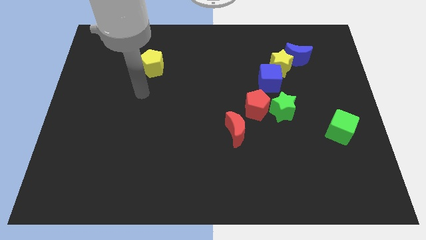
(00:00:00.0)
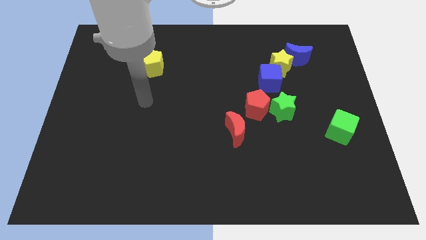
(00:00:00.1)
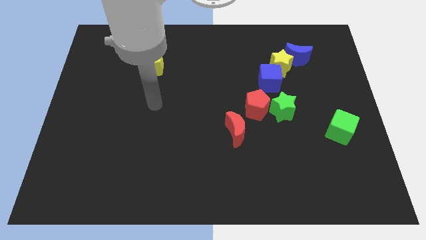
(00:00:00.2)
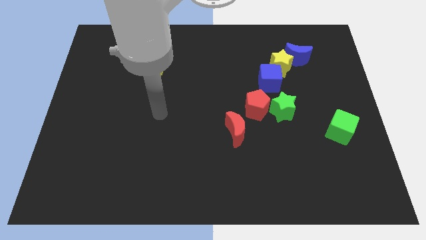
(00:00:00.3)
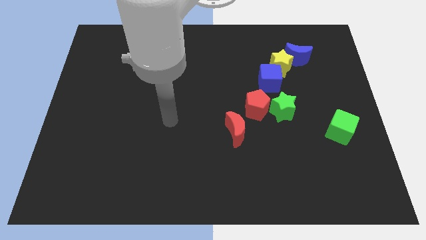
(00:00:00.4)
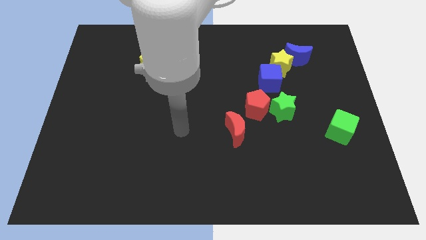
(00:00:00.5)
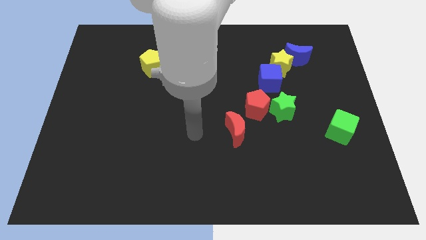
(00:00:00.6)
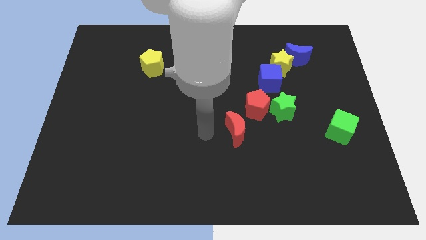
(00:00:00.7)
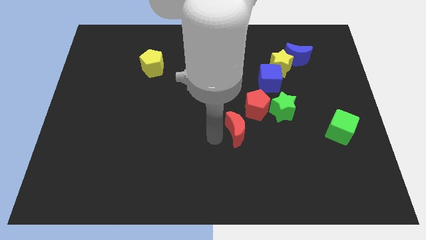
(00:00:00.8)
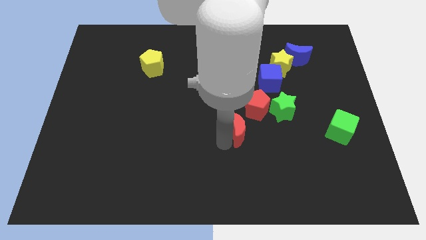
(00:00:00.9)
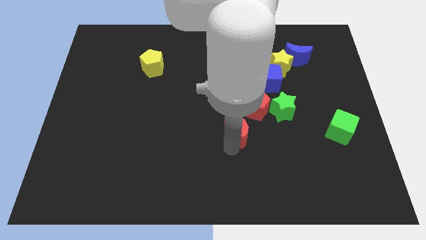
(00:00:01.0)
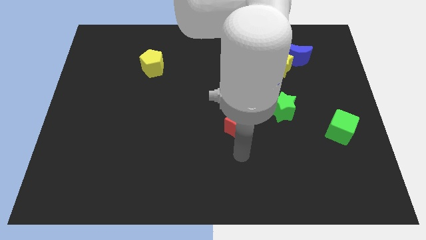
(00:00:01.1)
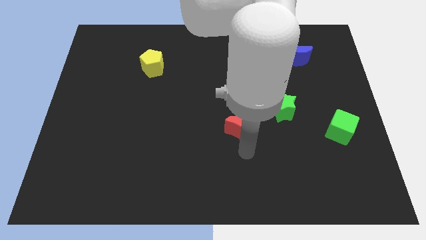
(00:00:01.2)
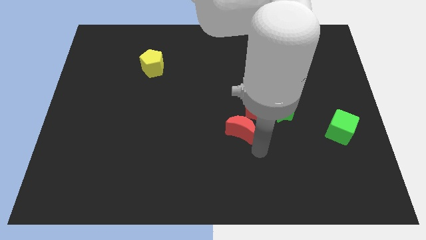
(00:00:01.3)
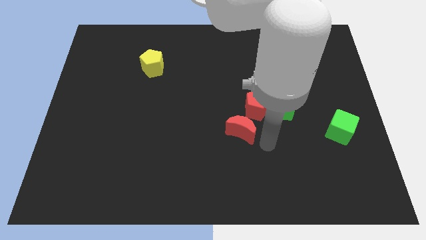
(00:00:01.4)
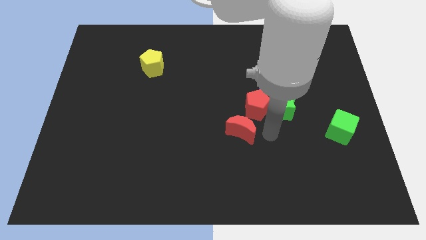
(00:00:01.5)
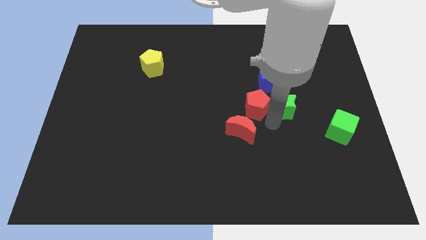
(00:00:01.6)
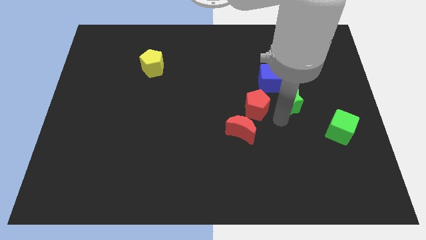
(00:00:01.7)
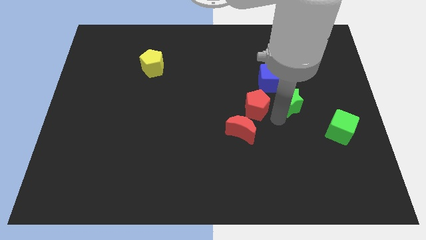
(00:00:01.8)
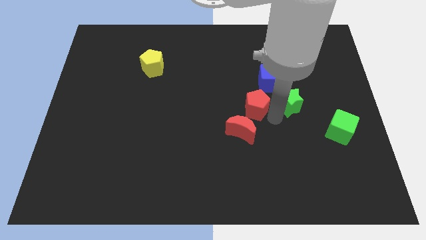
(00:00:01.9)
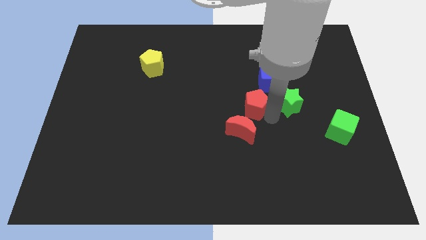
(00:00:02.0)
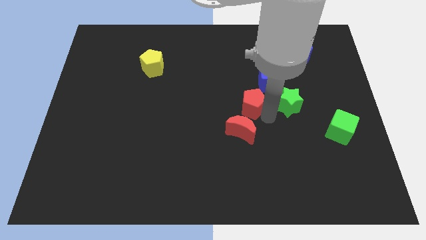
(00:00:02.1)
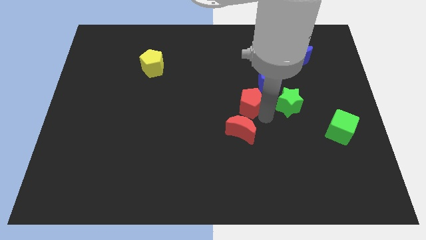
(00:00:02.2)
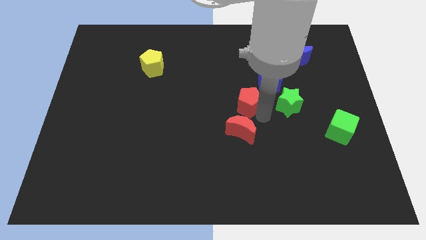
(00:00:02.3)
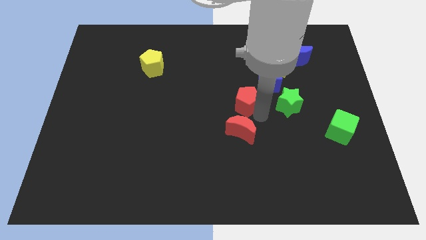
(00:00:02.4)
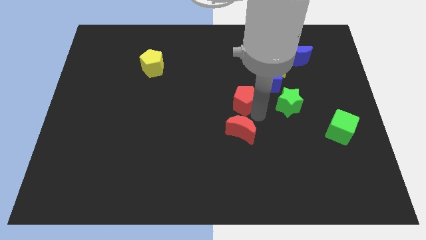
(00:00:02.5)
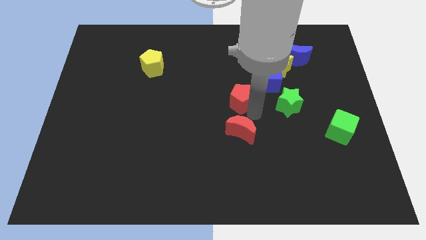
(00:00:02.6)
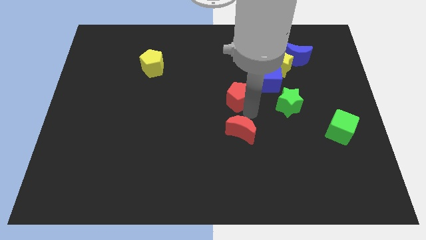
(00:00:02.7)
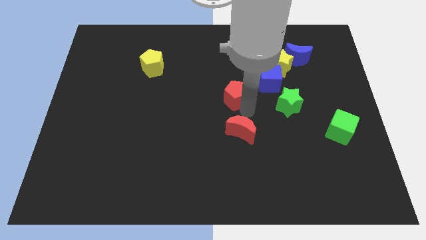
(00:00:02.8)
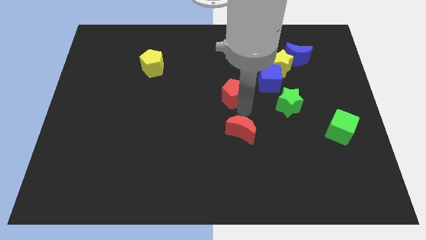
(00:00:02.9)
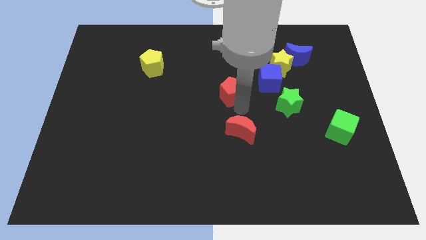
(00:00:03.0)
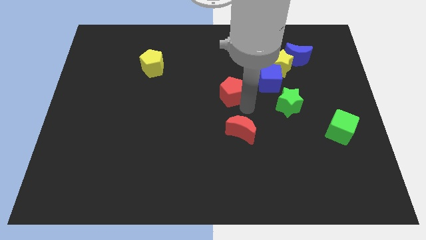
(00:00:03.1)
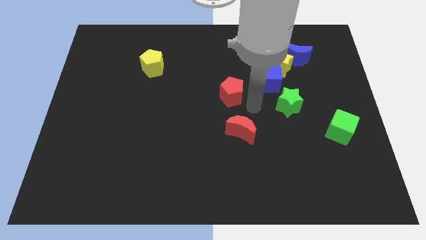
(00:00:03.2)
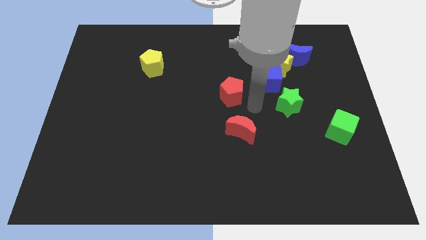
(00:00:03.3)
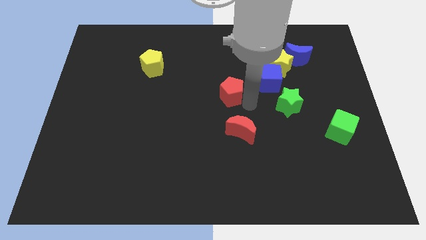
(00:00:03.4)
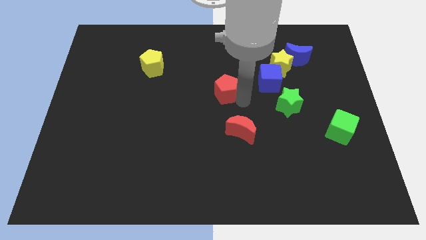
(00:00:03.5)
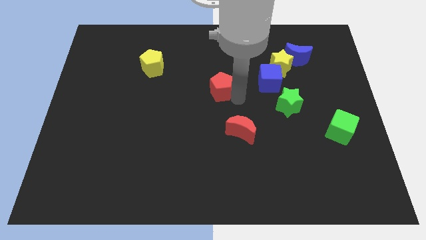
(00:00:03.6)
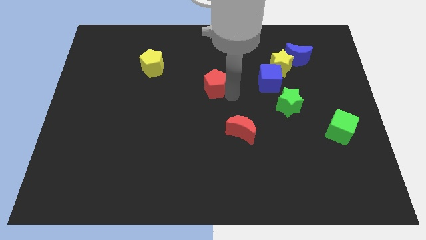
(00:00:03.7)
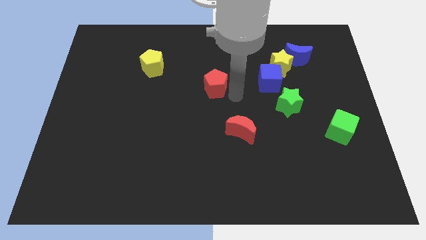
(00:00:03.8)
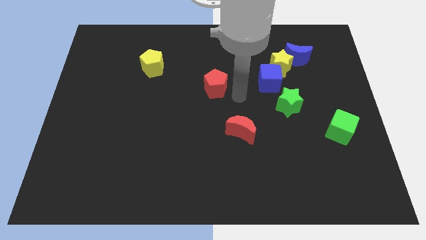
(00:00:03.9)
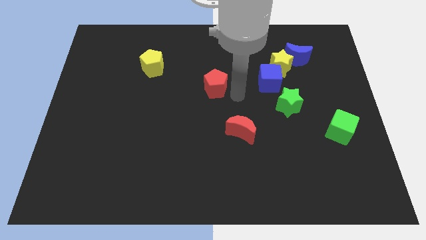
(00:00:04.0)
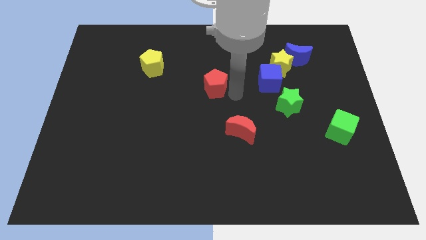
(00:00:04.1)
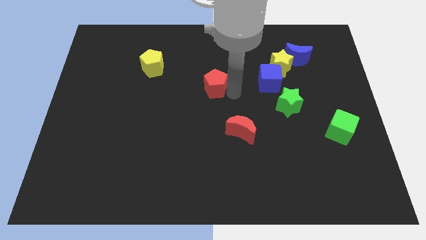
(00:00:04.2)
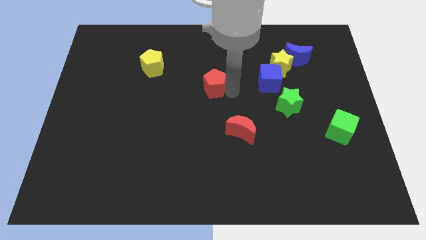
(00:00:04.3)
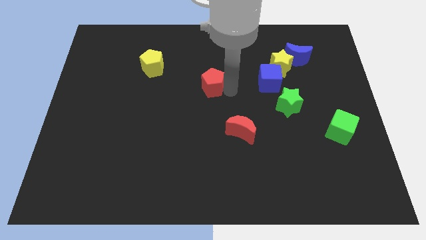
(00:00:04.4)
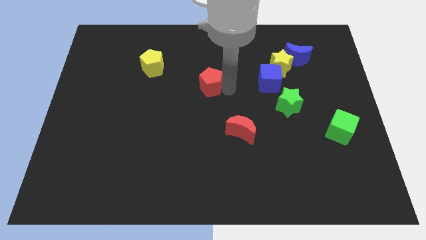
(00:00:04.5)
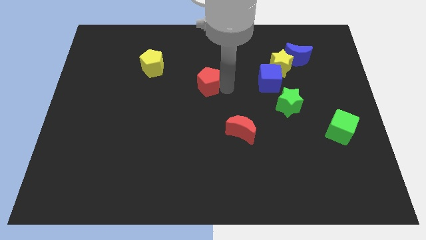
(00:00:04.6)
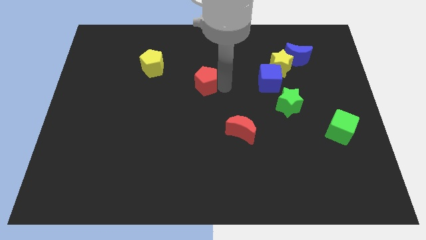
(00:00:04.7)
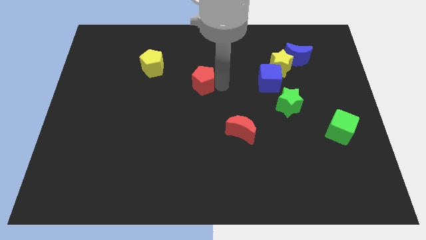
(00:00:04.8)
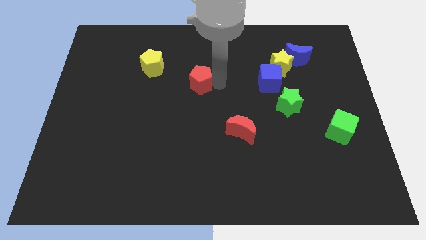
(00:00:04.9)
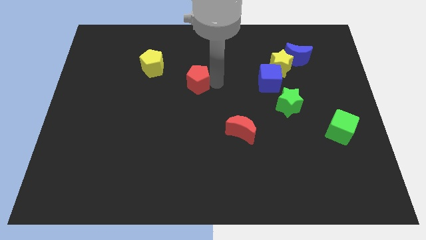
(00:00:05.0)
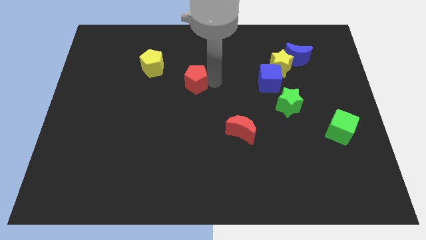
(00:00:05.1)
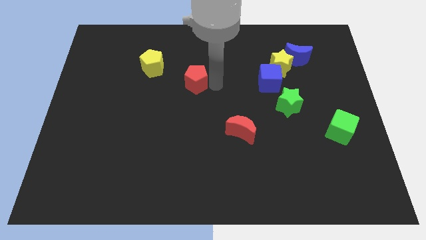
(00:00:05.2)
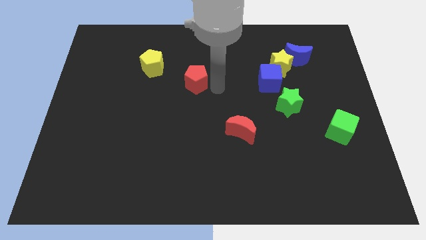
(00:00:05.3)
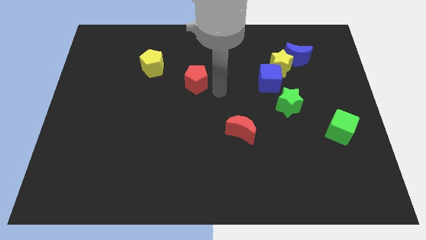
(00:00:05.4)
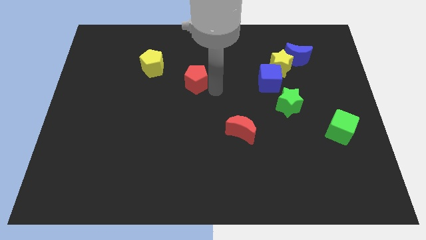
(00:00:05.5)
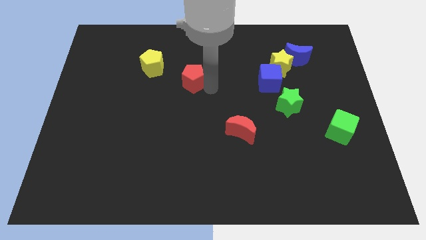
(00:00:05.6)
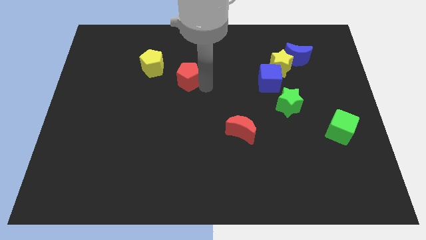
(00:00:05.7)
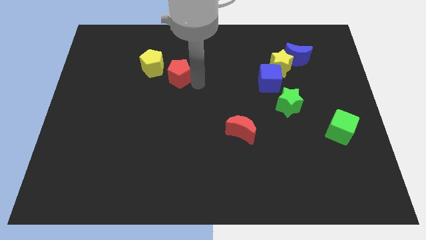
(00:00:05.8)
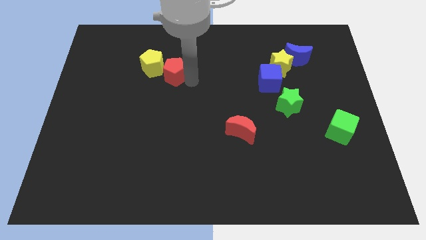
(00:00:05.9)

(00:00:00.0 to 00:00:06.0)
move the red pentagon next to the yellow pentagon

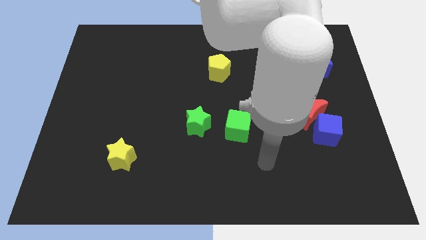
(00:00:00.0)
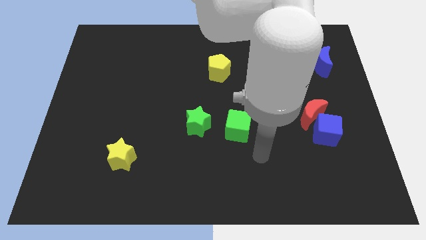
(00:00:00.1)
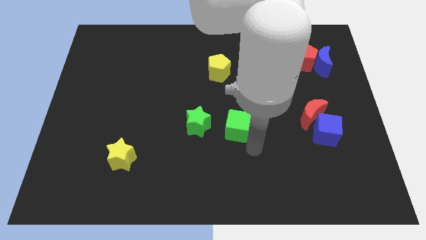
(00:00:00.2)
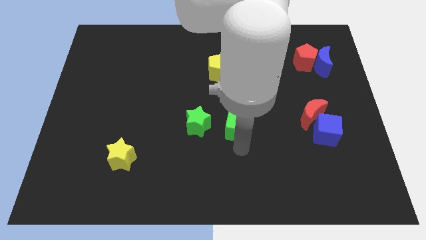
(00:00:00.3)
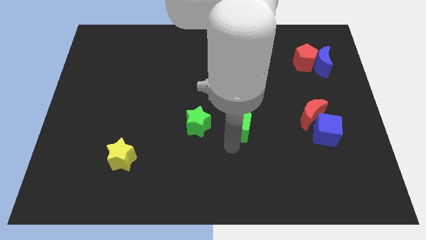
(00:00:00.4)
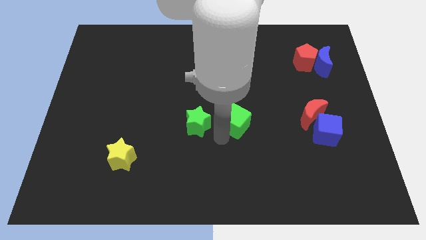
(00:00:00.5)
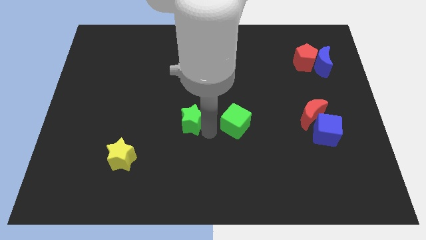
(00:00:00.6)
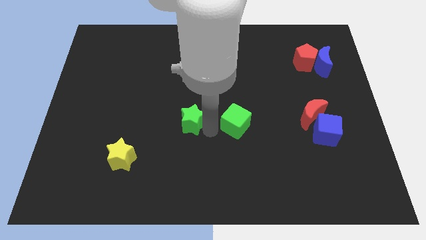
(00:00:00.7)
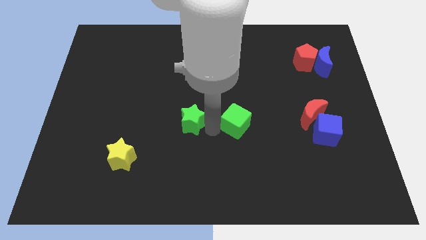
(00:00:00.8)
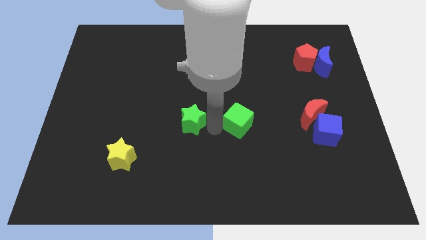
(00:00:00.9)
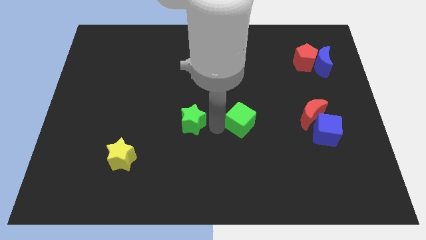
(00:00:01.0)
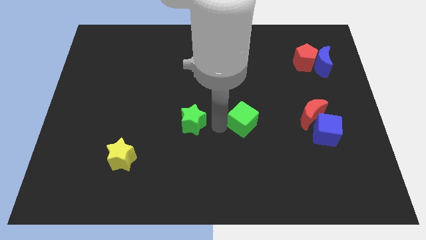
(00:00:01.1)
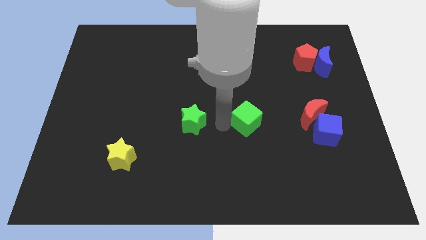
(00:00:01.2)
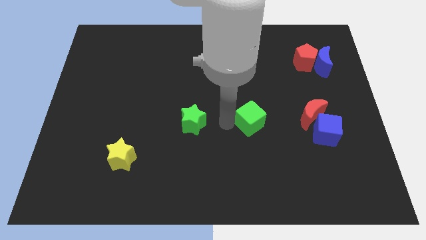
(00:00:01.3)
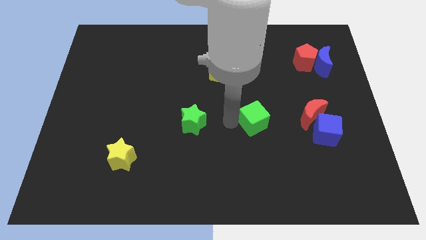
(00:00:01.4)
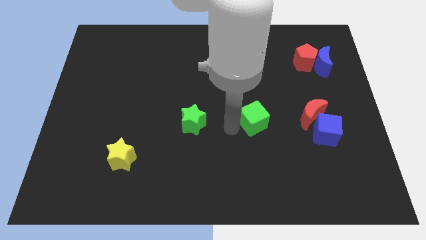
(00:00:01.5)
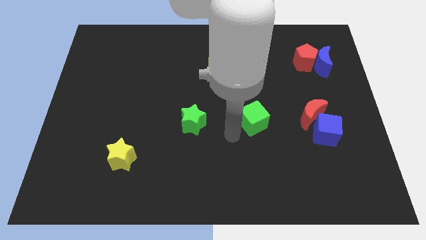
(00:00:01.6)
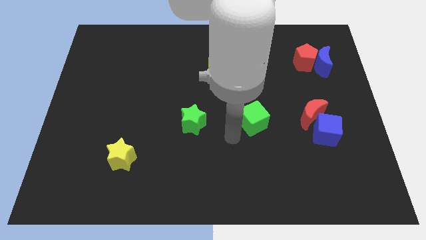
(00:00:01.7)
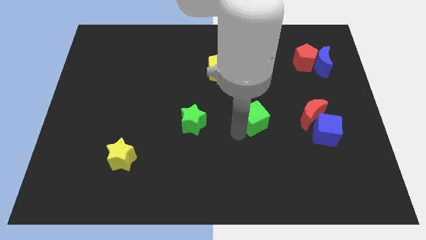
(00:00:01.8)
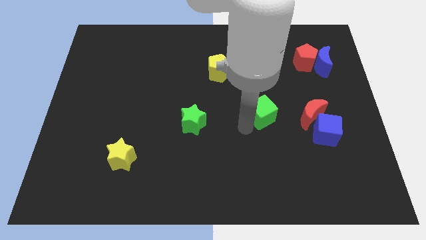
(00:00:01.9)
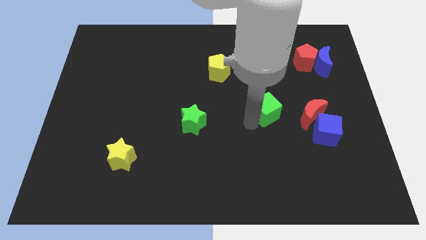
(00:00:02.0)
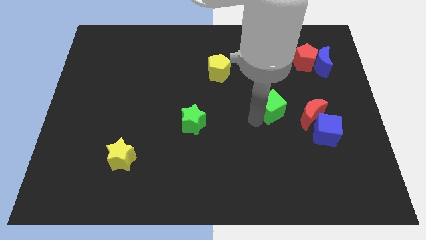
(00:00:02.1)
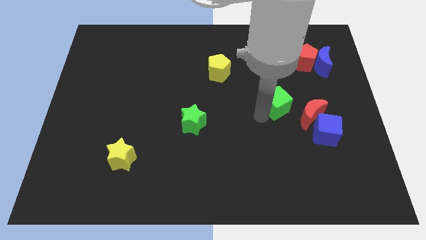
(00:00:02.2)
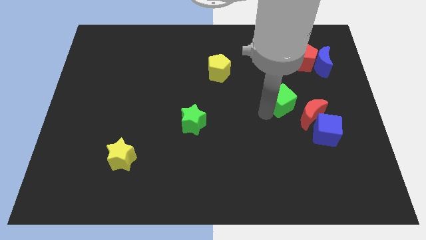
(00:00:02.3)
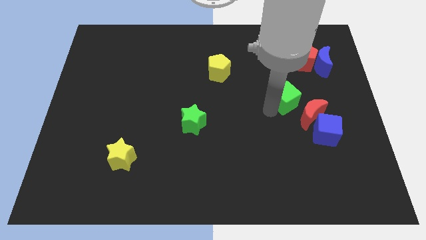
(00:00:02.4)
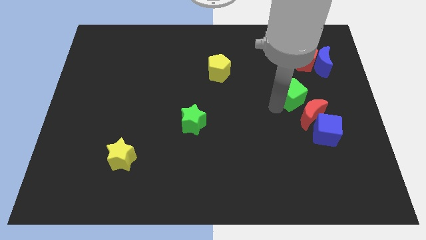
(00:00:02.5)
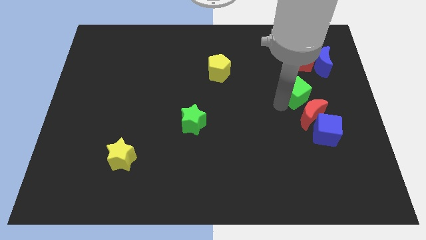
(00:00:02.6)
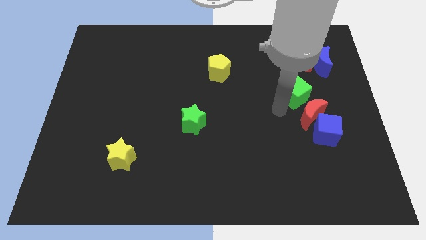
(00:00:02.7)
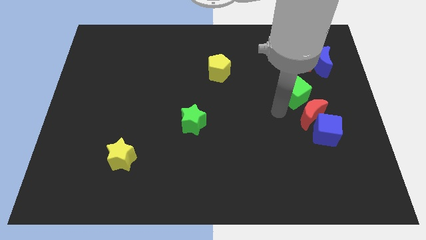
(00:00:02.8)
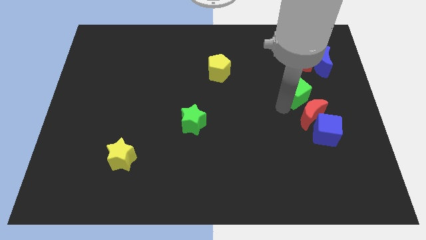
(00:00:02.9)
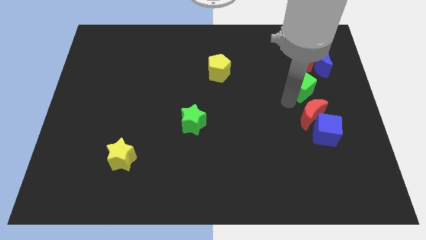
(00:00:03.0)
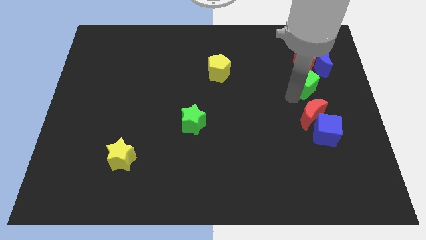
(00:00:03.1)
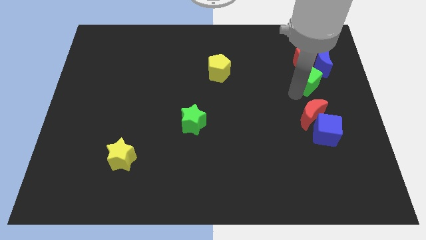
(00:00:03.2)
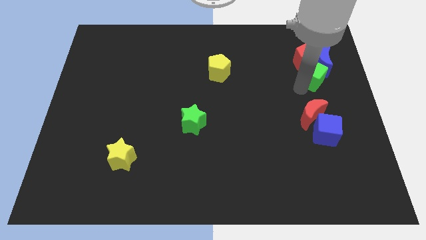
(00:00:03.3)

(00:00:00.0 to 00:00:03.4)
slide the green cube towards the blue moon
